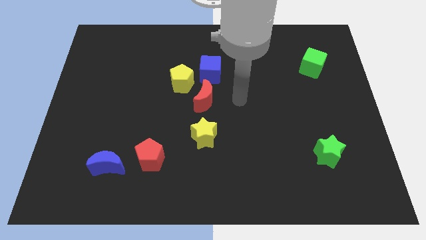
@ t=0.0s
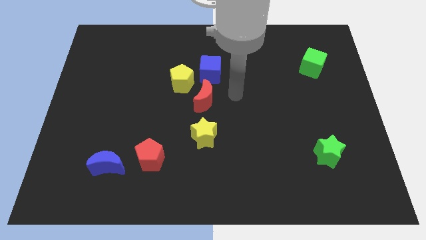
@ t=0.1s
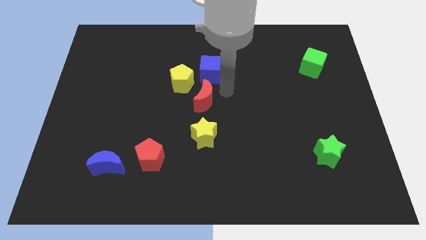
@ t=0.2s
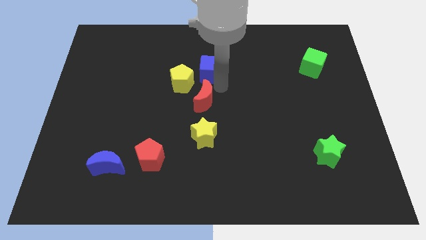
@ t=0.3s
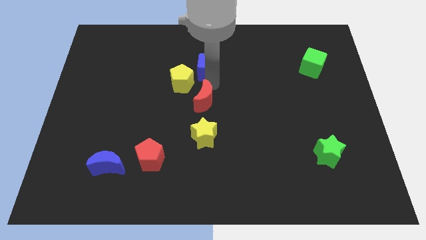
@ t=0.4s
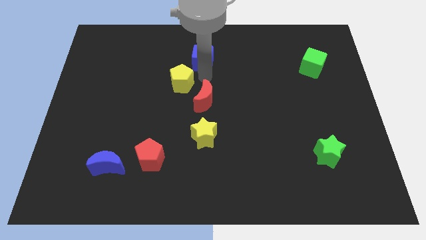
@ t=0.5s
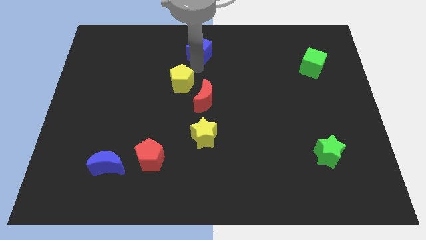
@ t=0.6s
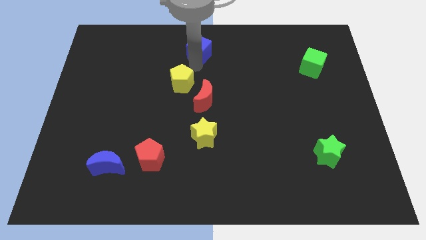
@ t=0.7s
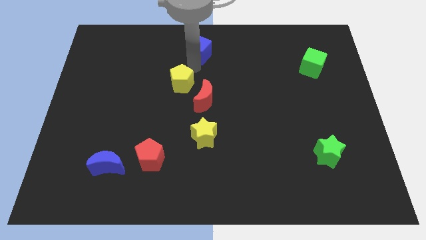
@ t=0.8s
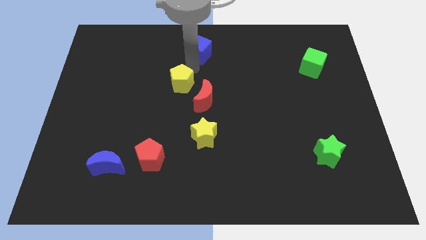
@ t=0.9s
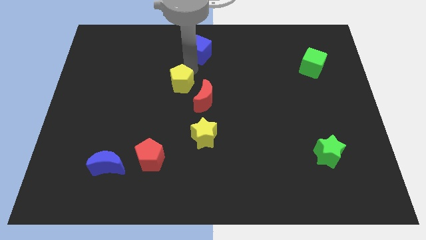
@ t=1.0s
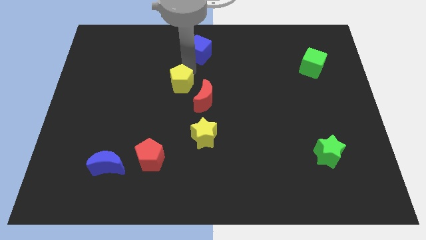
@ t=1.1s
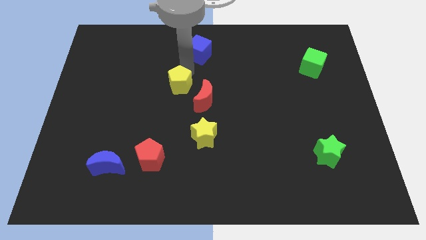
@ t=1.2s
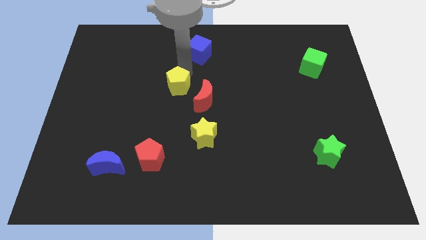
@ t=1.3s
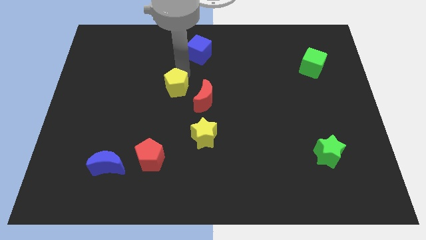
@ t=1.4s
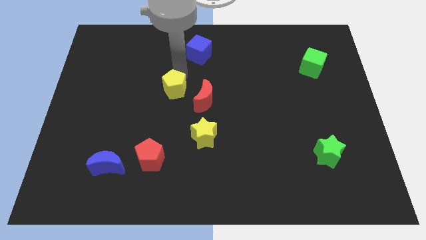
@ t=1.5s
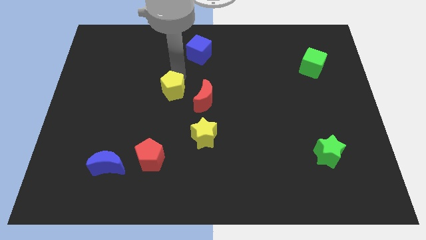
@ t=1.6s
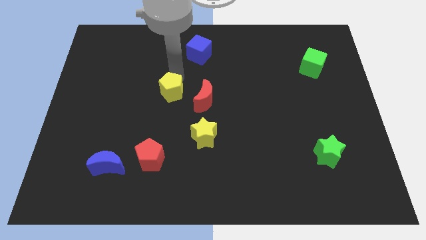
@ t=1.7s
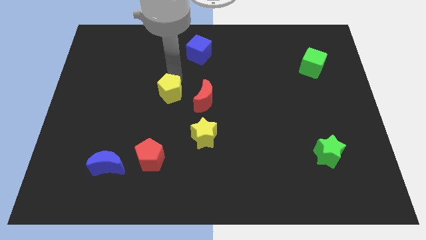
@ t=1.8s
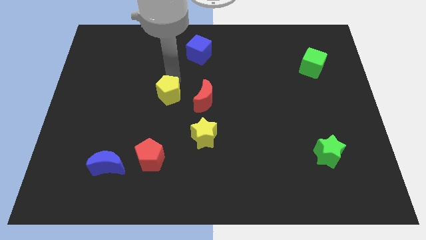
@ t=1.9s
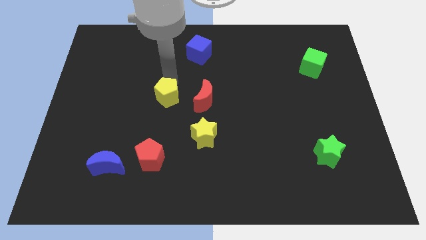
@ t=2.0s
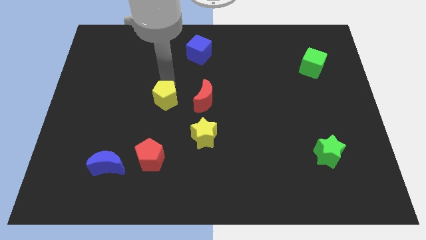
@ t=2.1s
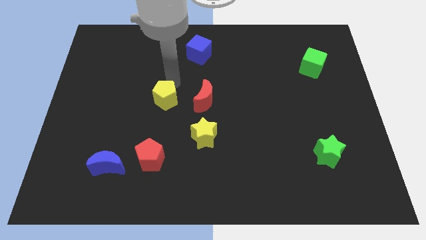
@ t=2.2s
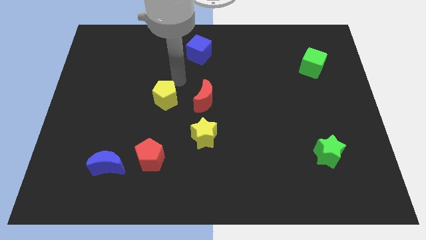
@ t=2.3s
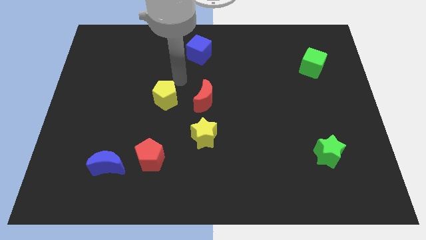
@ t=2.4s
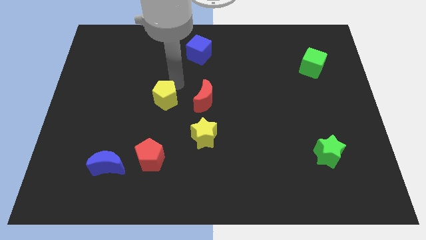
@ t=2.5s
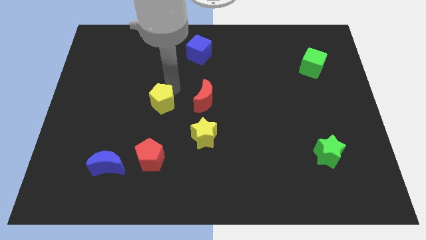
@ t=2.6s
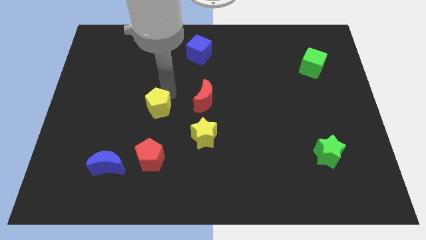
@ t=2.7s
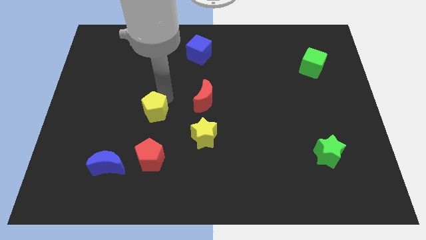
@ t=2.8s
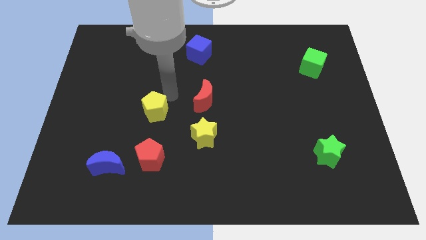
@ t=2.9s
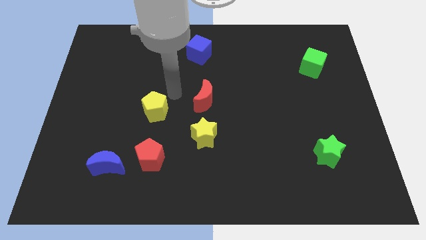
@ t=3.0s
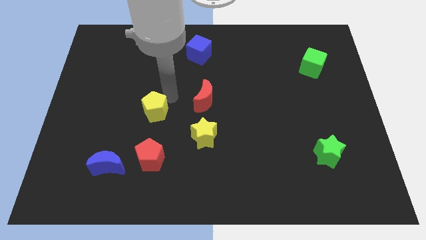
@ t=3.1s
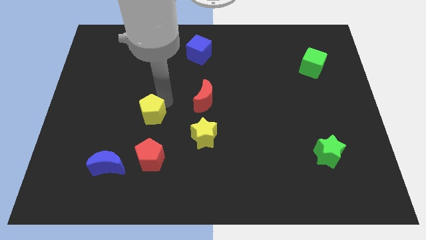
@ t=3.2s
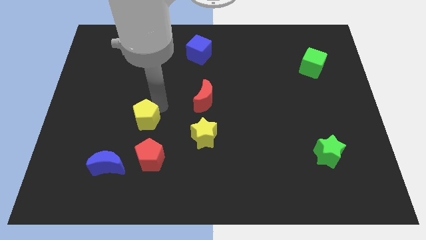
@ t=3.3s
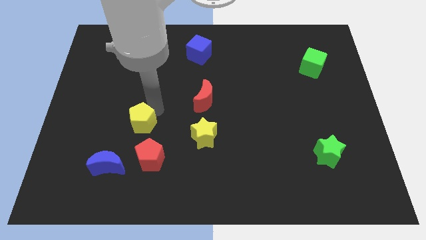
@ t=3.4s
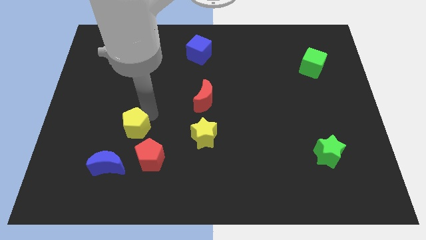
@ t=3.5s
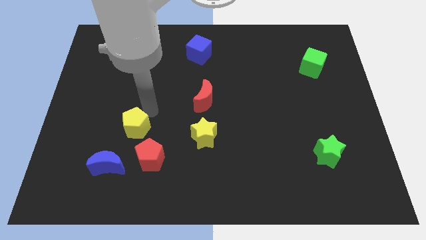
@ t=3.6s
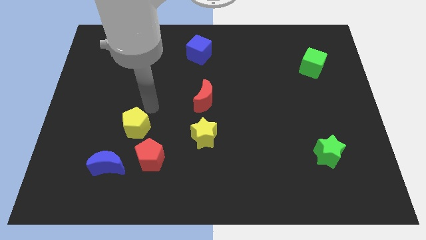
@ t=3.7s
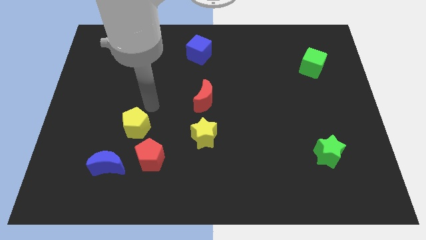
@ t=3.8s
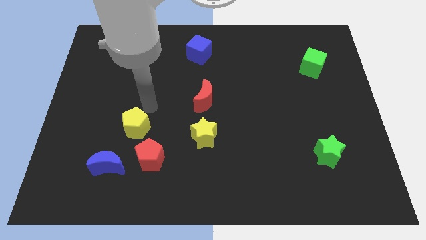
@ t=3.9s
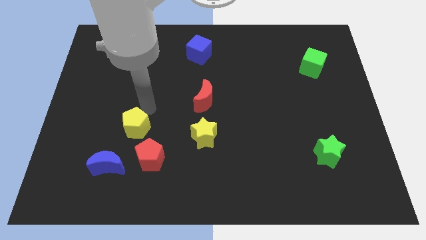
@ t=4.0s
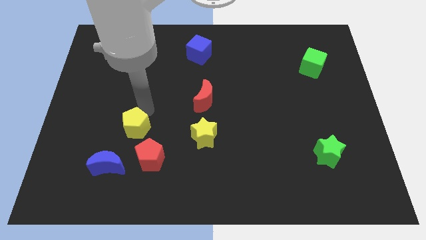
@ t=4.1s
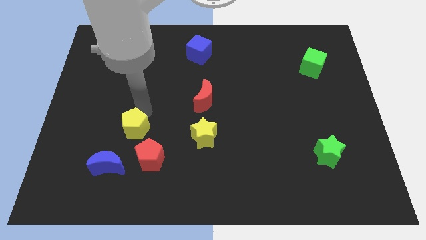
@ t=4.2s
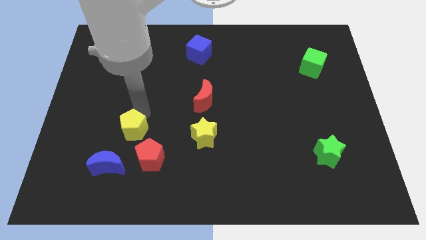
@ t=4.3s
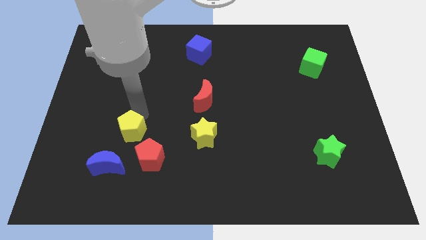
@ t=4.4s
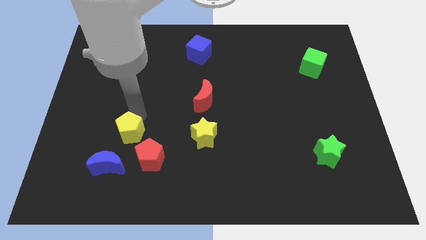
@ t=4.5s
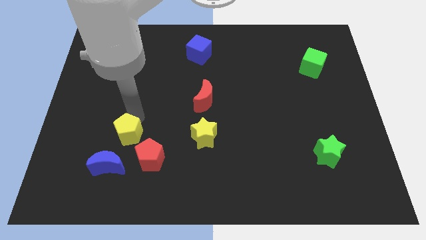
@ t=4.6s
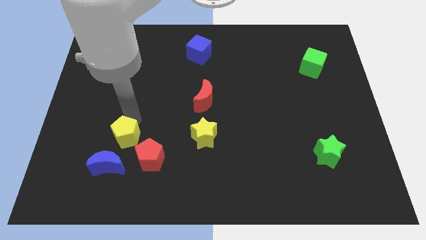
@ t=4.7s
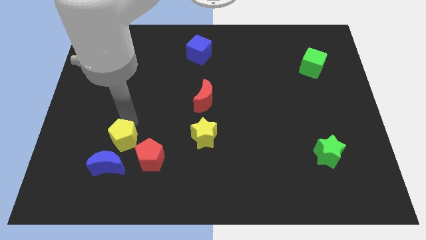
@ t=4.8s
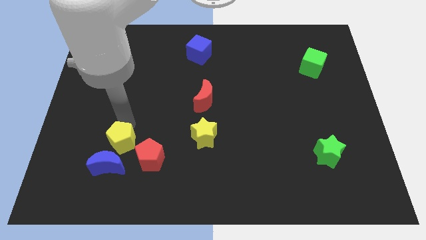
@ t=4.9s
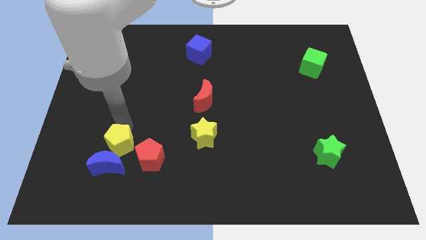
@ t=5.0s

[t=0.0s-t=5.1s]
push the yellow pentagon next to the blue moon

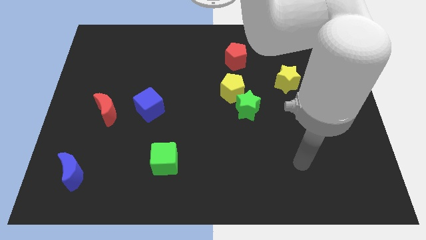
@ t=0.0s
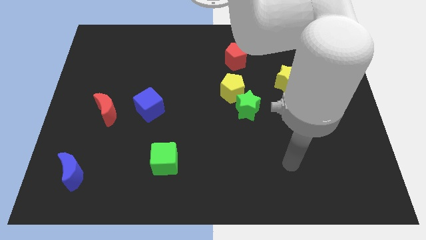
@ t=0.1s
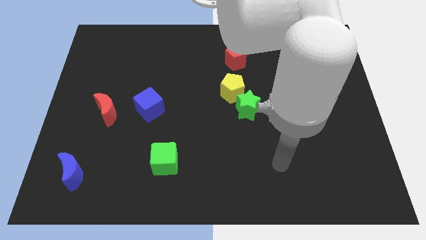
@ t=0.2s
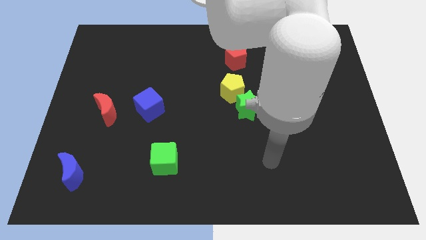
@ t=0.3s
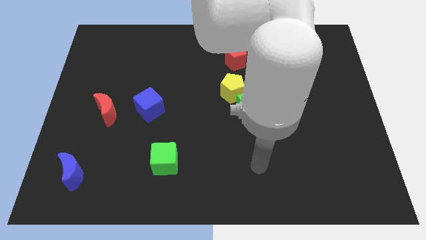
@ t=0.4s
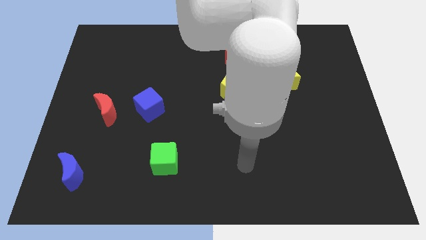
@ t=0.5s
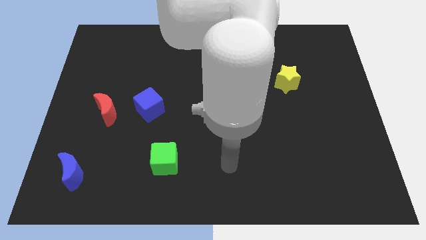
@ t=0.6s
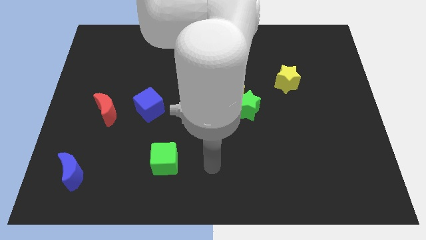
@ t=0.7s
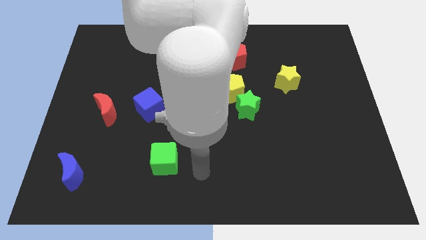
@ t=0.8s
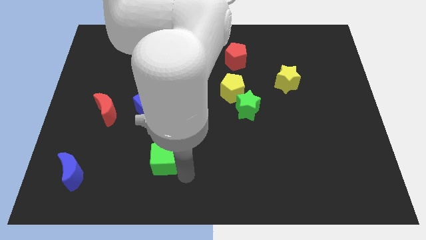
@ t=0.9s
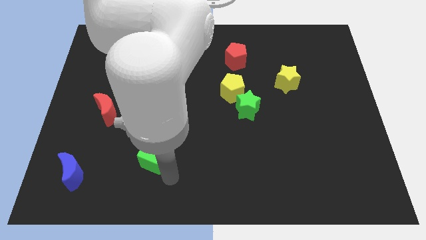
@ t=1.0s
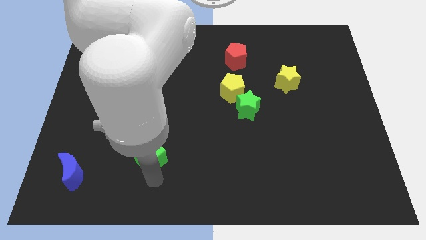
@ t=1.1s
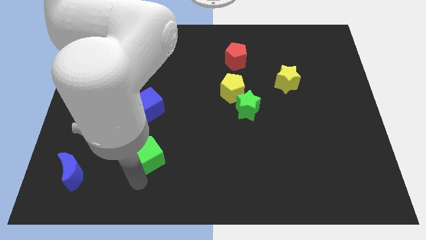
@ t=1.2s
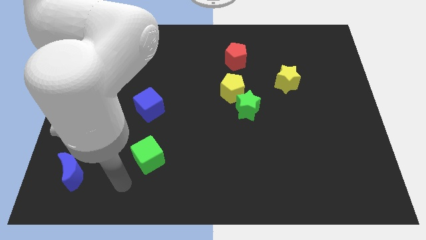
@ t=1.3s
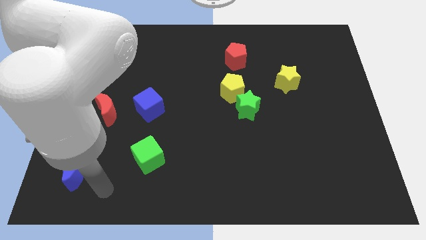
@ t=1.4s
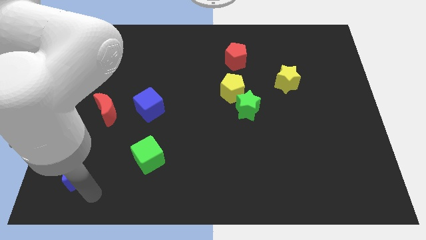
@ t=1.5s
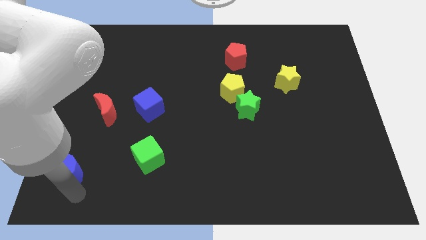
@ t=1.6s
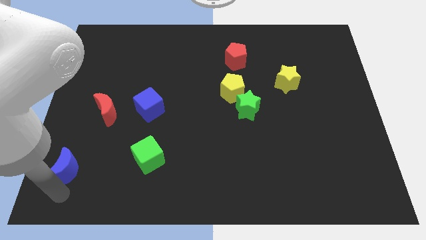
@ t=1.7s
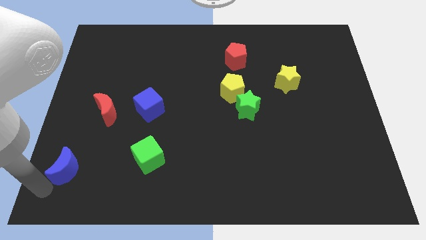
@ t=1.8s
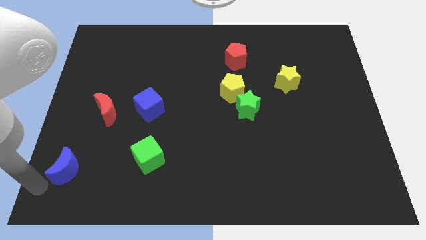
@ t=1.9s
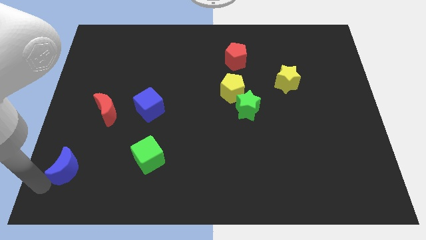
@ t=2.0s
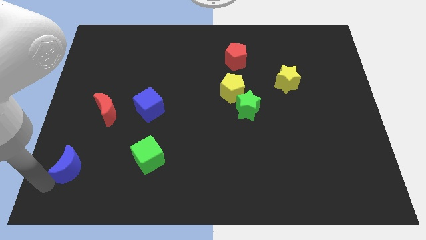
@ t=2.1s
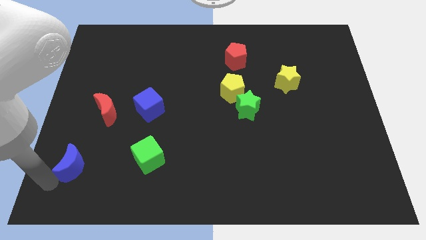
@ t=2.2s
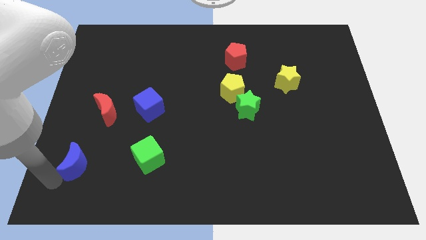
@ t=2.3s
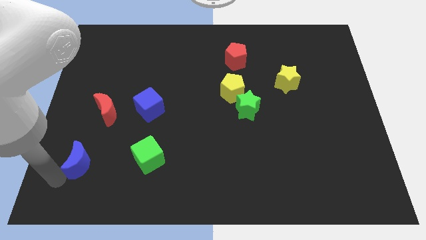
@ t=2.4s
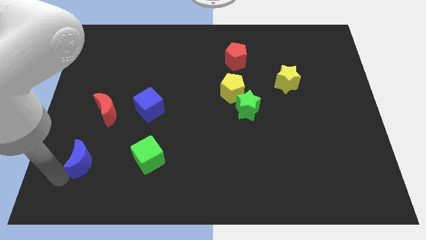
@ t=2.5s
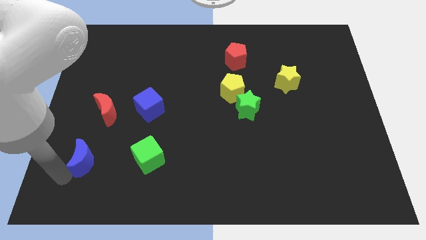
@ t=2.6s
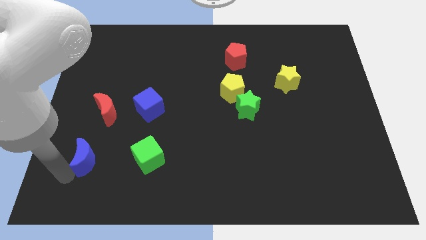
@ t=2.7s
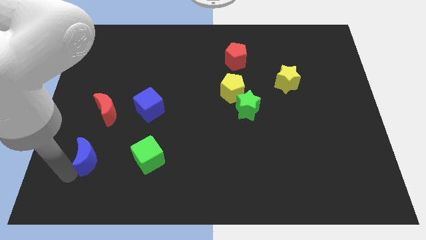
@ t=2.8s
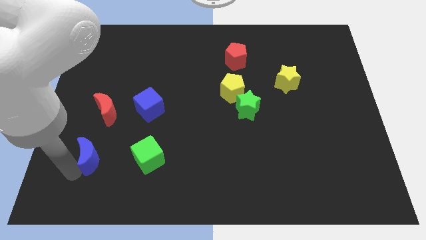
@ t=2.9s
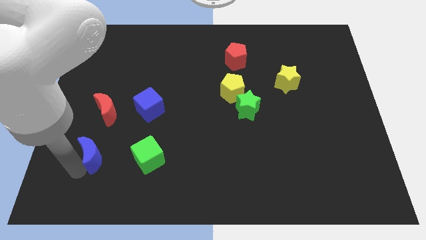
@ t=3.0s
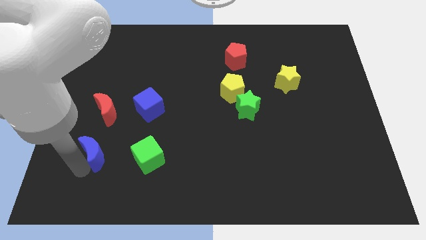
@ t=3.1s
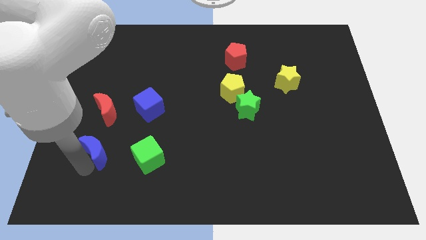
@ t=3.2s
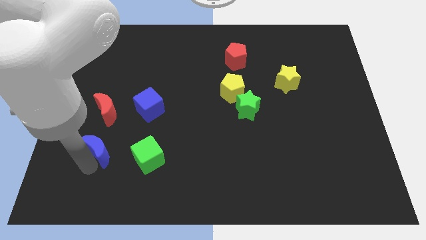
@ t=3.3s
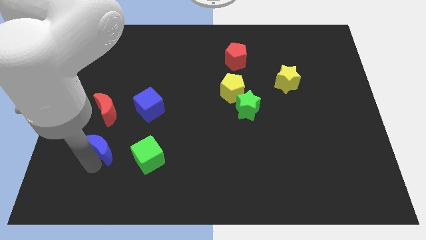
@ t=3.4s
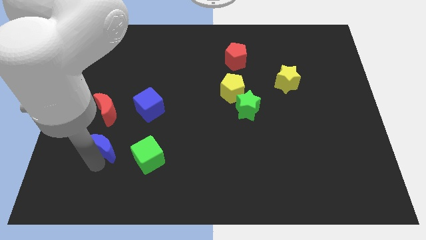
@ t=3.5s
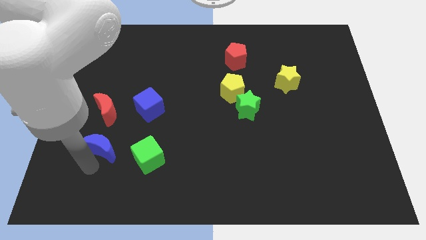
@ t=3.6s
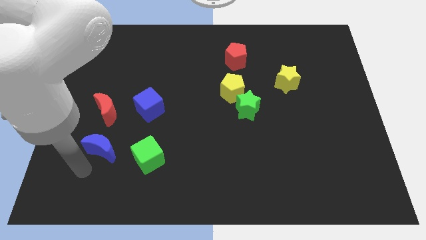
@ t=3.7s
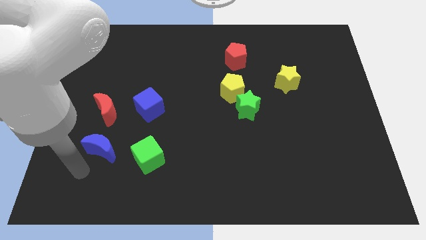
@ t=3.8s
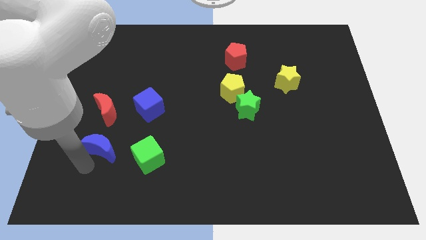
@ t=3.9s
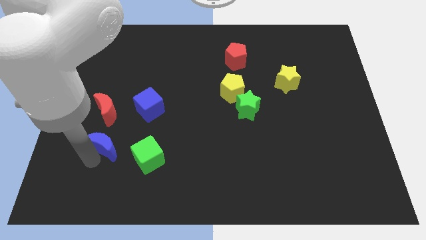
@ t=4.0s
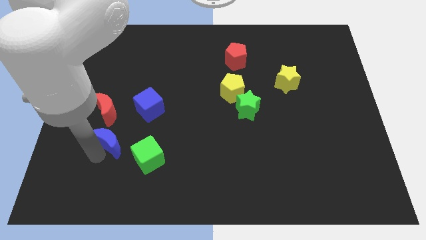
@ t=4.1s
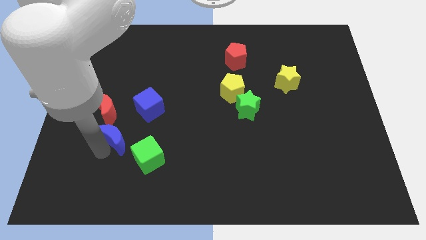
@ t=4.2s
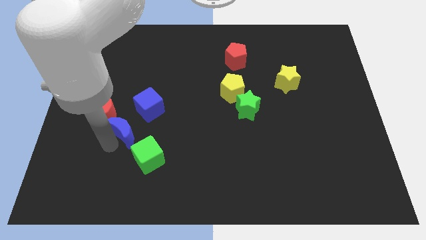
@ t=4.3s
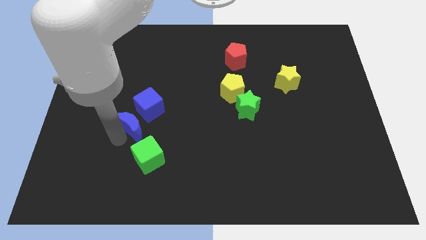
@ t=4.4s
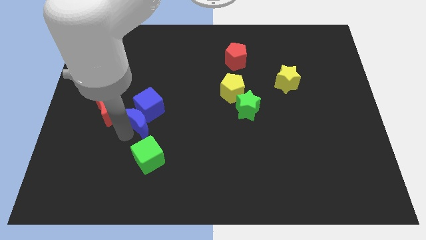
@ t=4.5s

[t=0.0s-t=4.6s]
put the blue moon close to the blue cube
